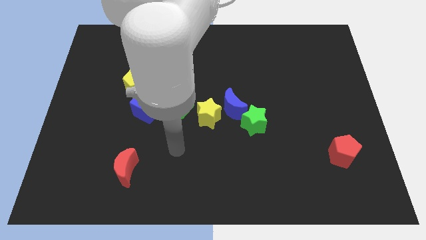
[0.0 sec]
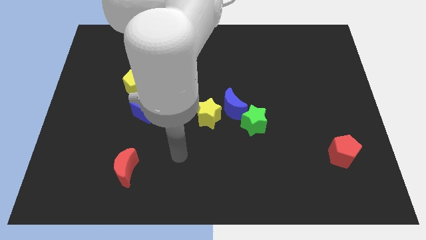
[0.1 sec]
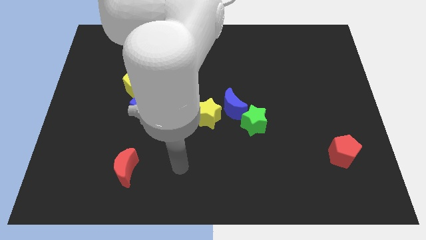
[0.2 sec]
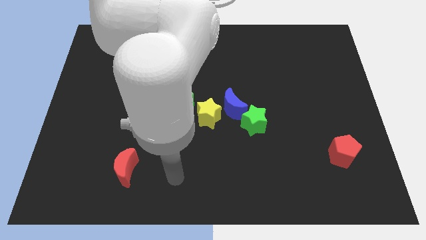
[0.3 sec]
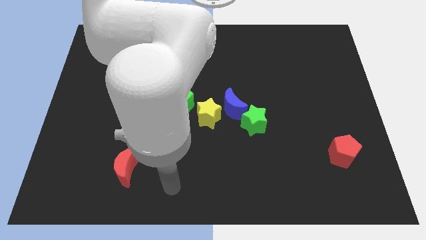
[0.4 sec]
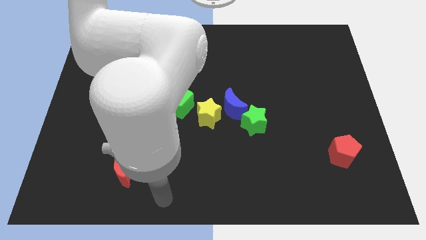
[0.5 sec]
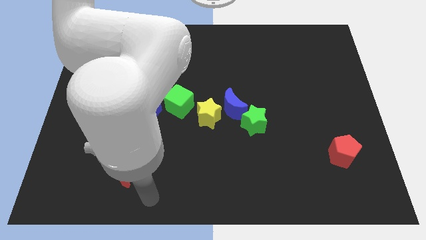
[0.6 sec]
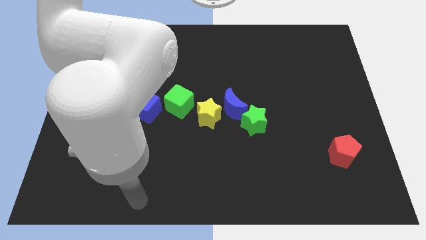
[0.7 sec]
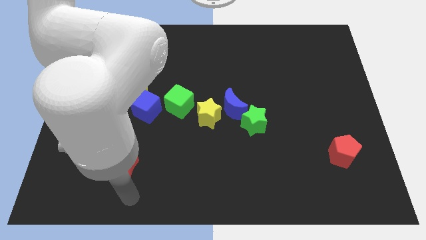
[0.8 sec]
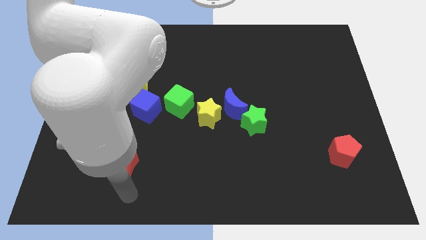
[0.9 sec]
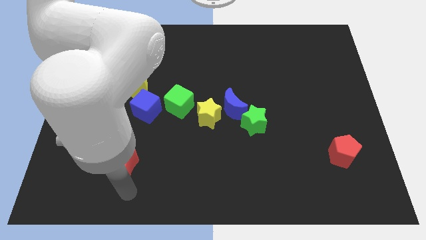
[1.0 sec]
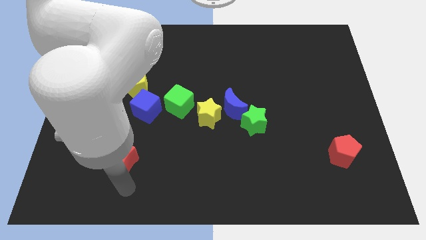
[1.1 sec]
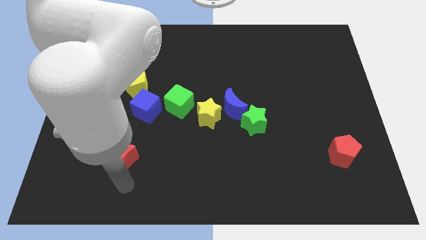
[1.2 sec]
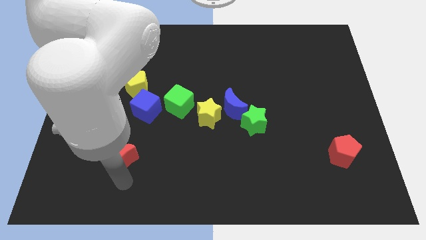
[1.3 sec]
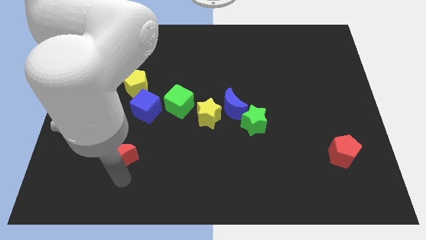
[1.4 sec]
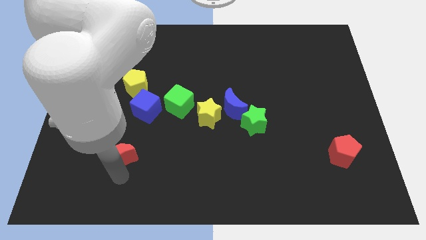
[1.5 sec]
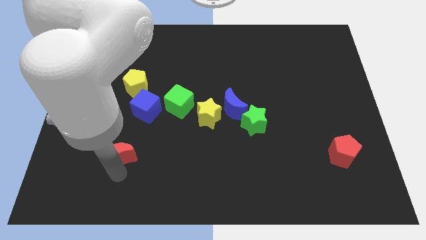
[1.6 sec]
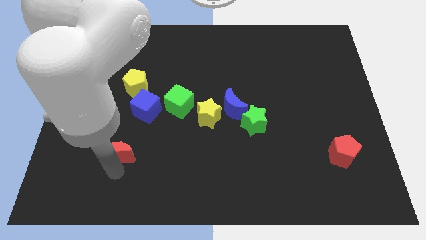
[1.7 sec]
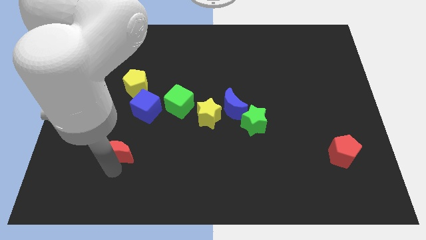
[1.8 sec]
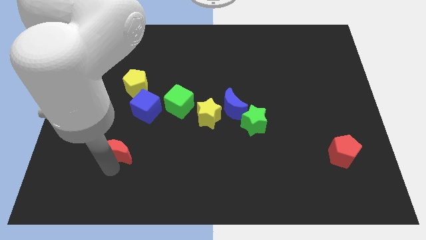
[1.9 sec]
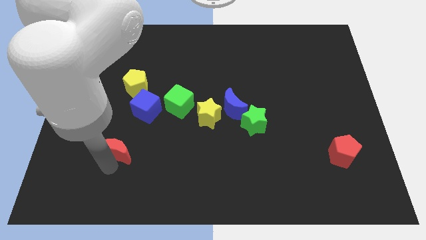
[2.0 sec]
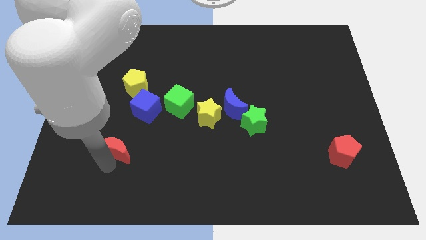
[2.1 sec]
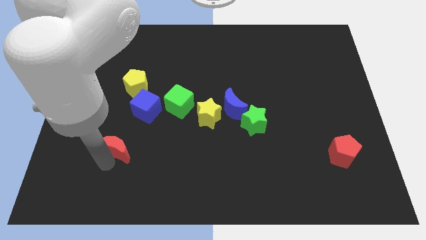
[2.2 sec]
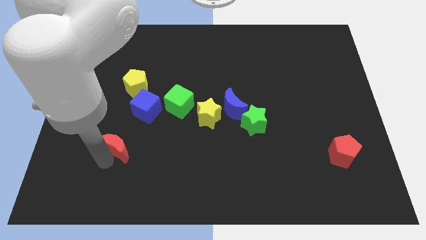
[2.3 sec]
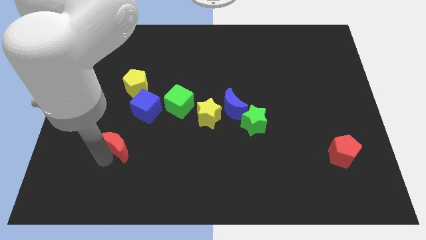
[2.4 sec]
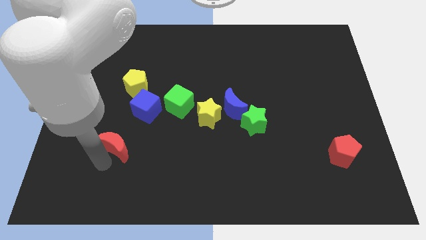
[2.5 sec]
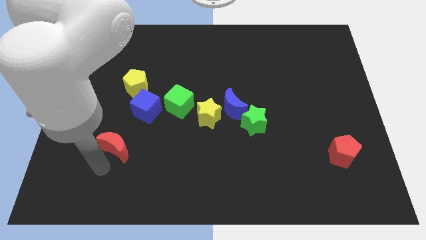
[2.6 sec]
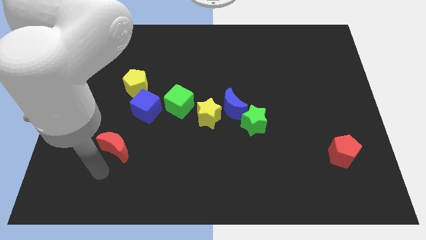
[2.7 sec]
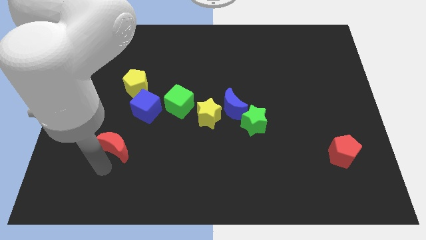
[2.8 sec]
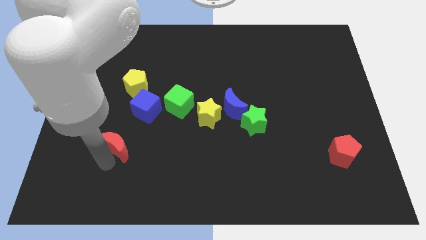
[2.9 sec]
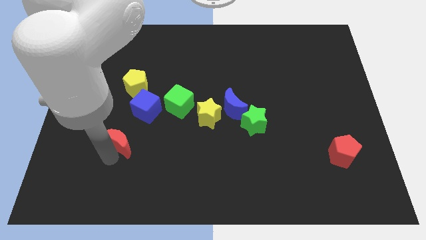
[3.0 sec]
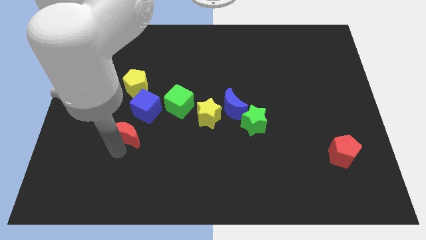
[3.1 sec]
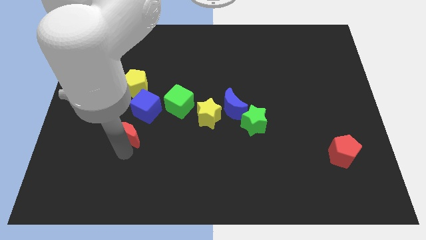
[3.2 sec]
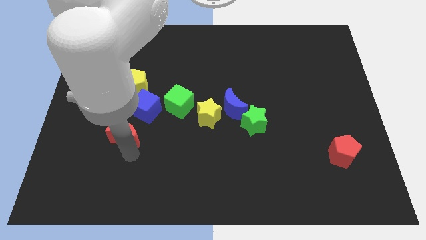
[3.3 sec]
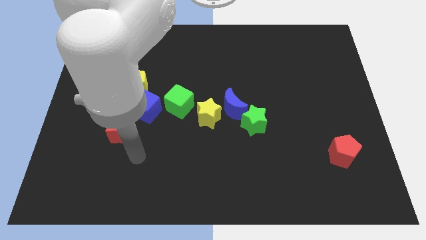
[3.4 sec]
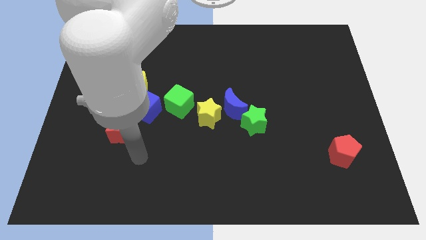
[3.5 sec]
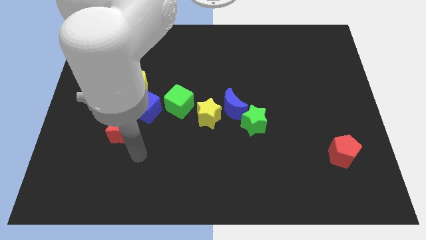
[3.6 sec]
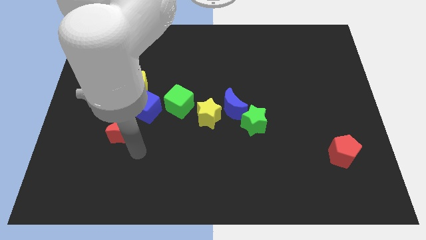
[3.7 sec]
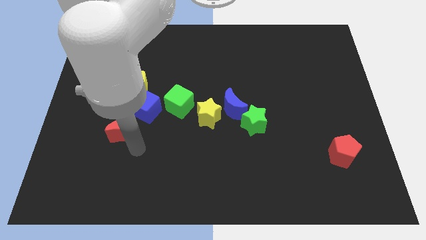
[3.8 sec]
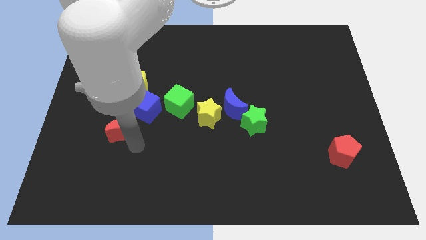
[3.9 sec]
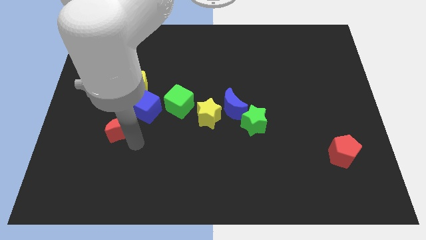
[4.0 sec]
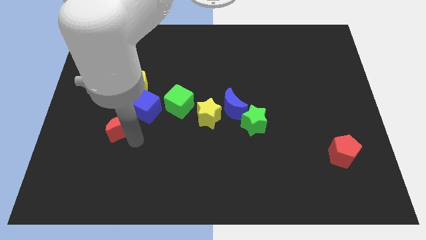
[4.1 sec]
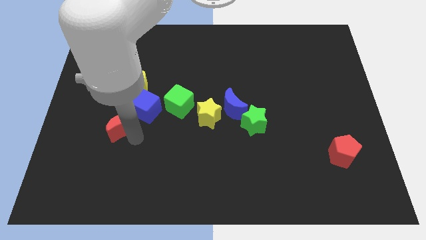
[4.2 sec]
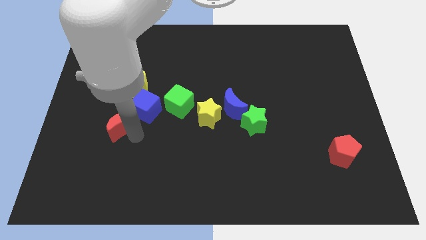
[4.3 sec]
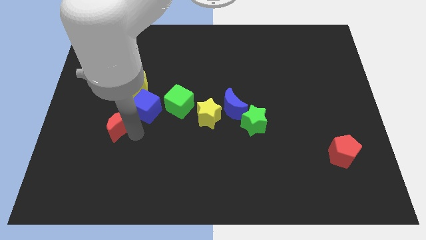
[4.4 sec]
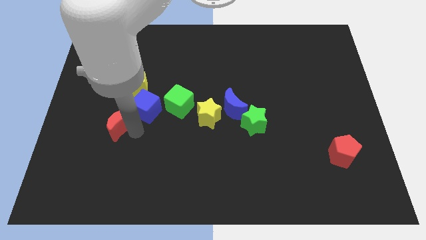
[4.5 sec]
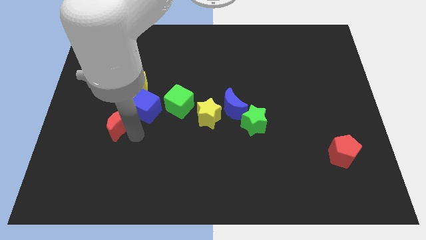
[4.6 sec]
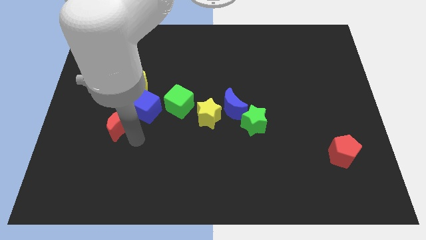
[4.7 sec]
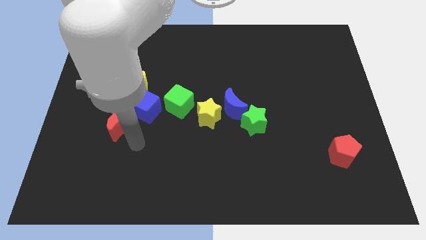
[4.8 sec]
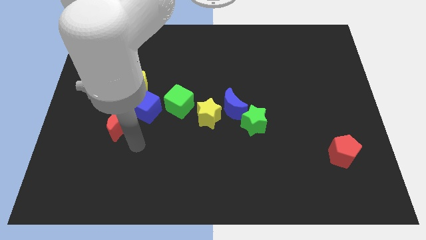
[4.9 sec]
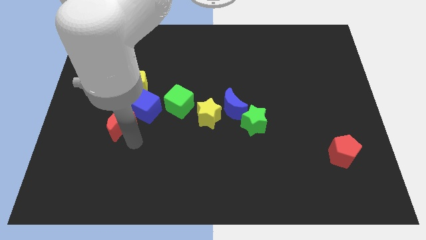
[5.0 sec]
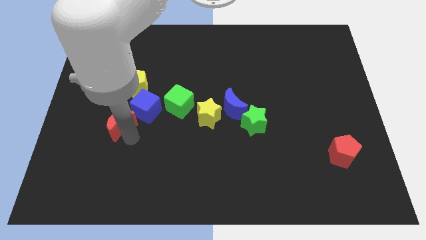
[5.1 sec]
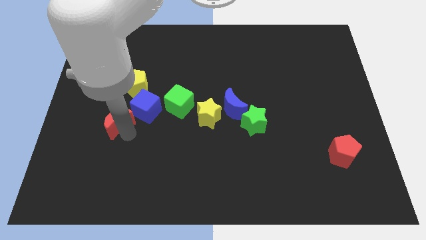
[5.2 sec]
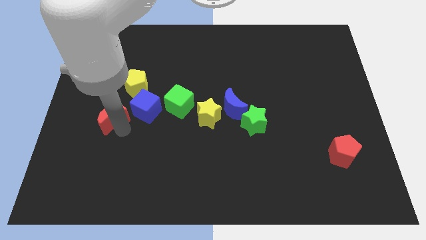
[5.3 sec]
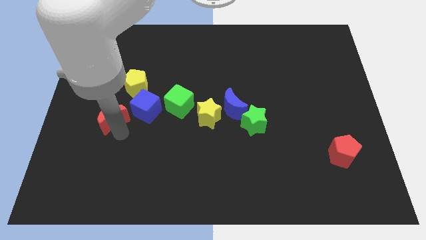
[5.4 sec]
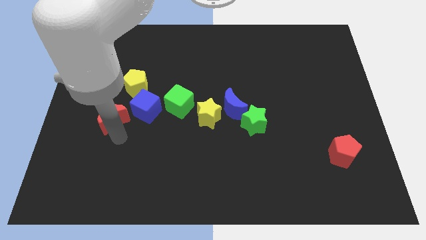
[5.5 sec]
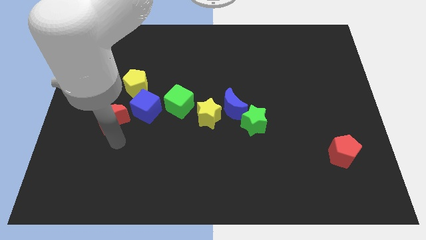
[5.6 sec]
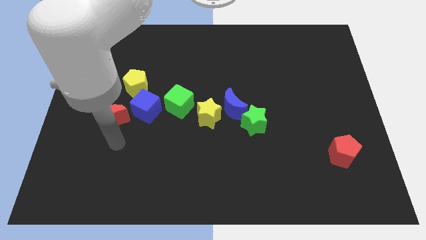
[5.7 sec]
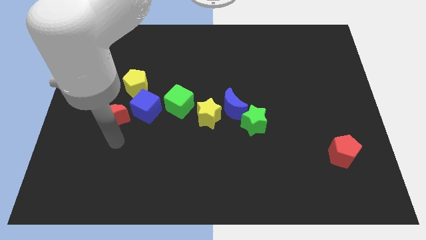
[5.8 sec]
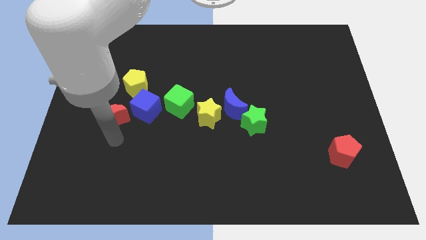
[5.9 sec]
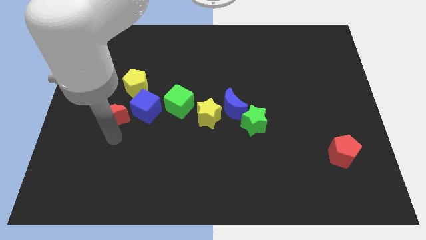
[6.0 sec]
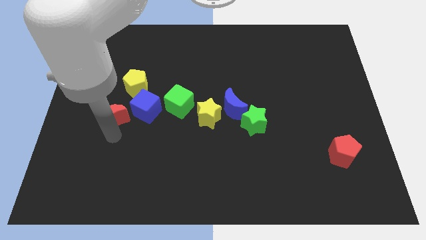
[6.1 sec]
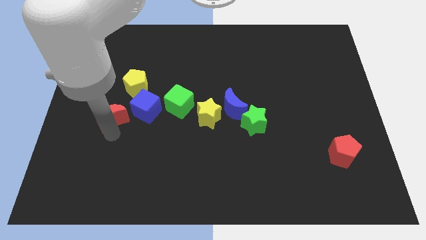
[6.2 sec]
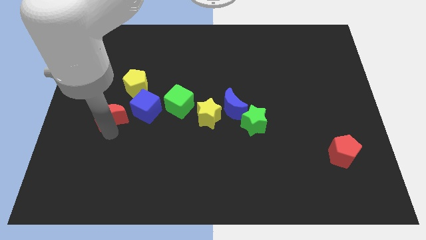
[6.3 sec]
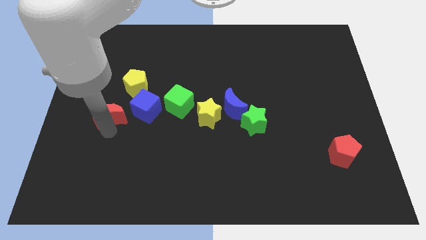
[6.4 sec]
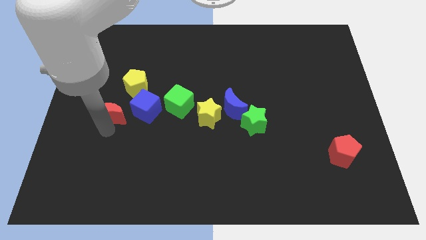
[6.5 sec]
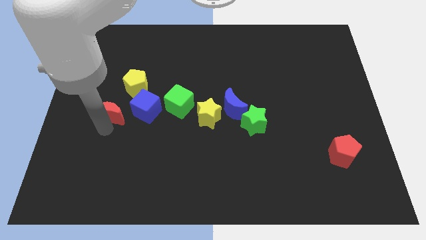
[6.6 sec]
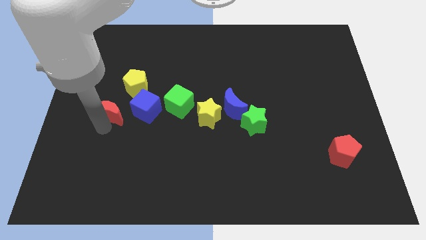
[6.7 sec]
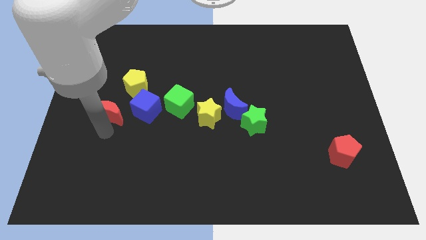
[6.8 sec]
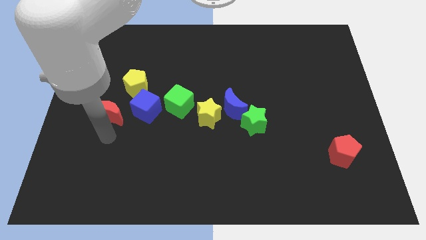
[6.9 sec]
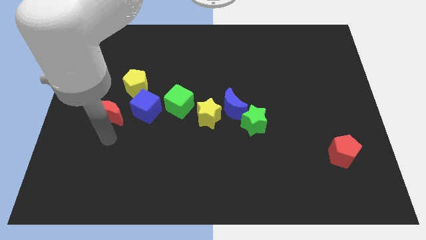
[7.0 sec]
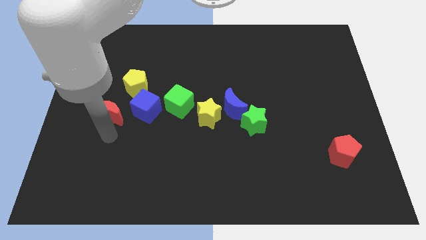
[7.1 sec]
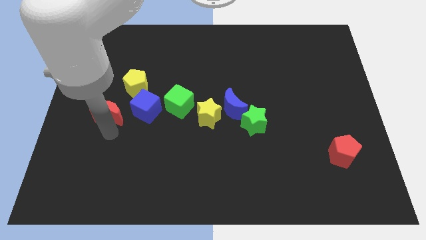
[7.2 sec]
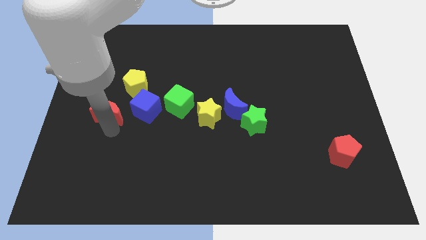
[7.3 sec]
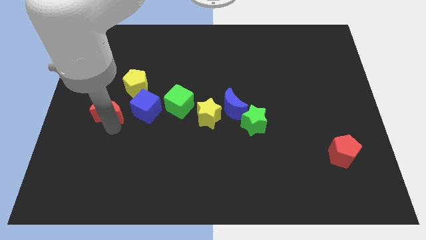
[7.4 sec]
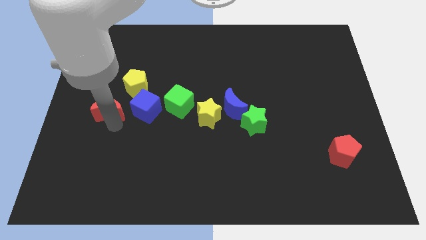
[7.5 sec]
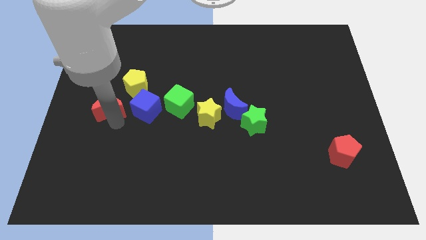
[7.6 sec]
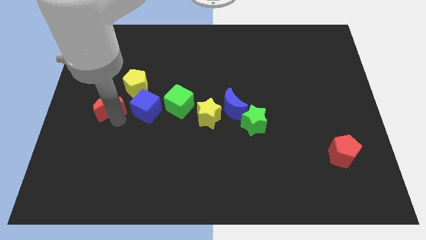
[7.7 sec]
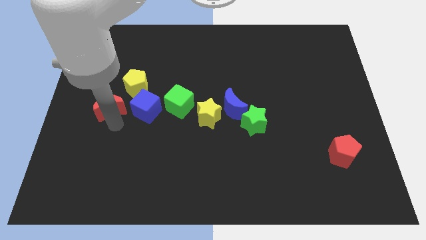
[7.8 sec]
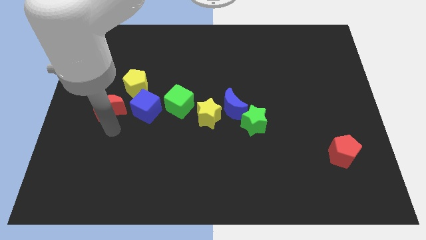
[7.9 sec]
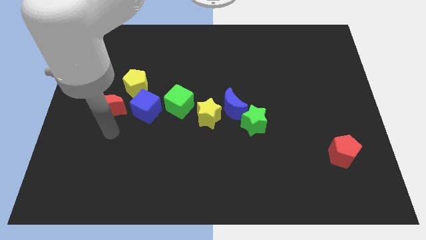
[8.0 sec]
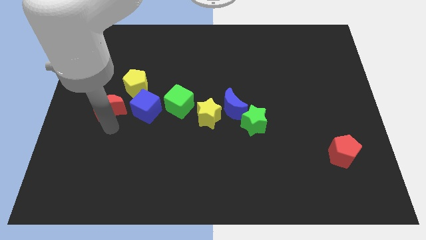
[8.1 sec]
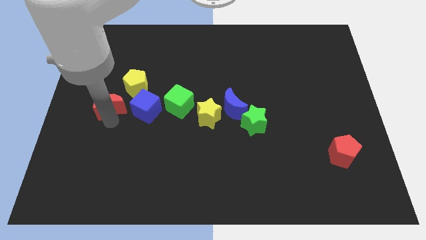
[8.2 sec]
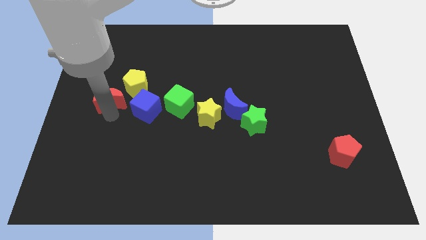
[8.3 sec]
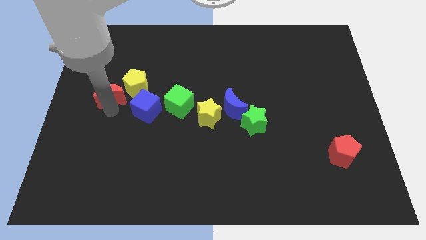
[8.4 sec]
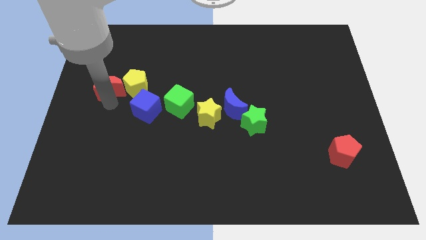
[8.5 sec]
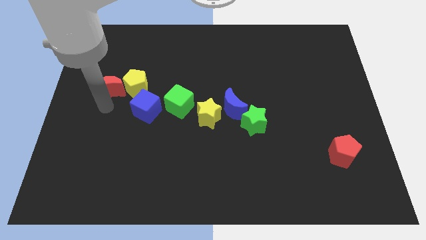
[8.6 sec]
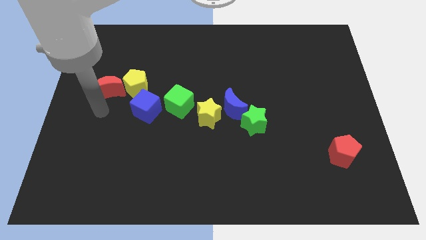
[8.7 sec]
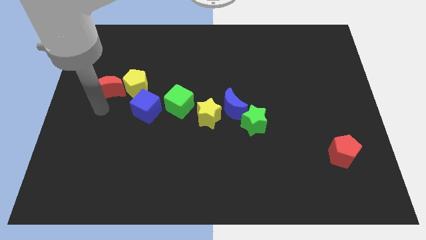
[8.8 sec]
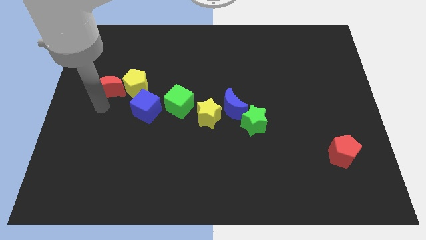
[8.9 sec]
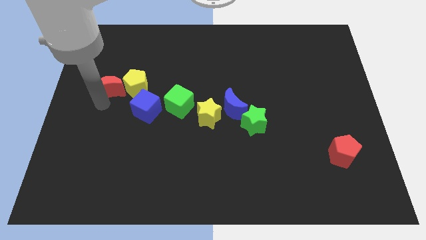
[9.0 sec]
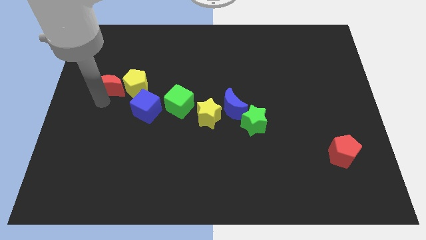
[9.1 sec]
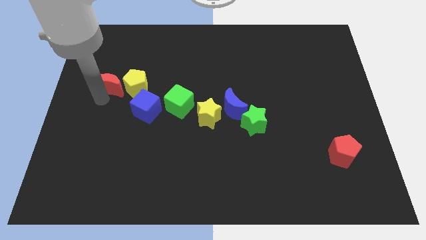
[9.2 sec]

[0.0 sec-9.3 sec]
slide the red moon to the top left of the yellow pentagon
